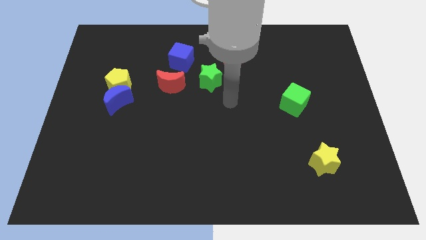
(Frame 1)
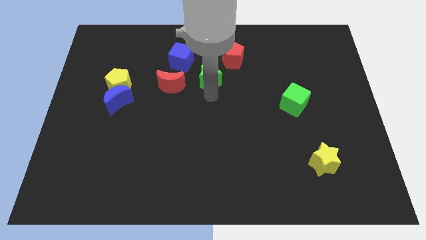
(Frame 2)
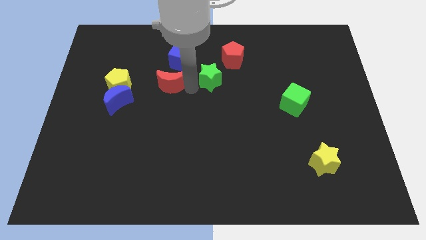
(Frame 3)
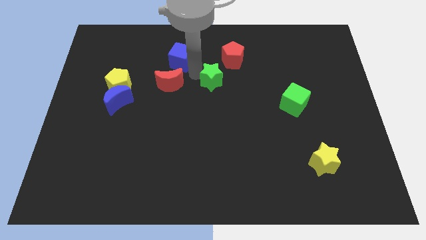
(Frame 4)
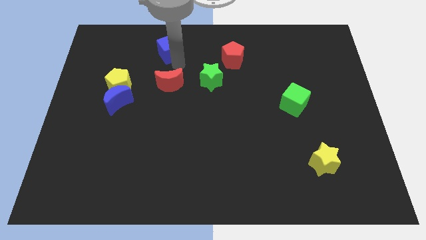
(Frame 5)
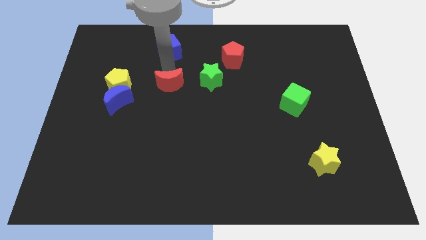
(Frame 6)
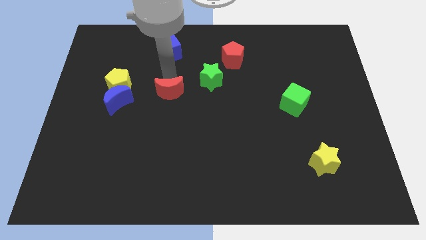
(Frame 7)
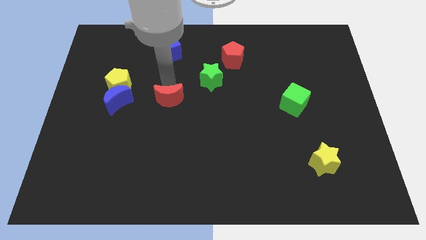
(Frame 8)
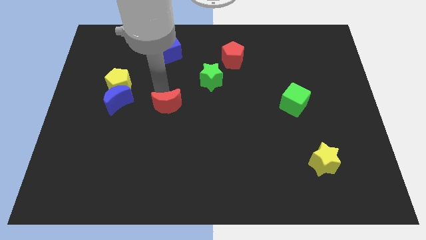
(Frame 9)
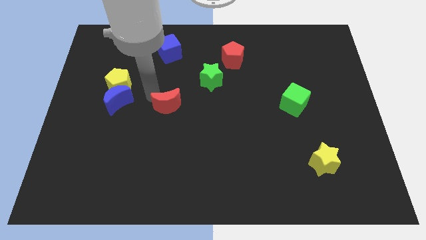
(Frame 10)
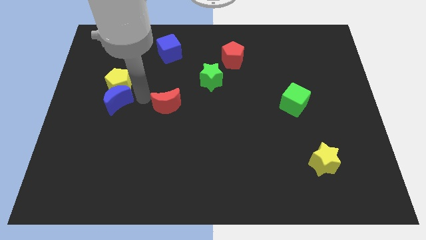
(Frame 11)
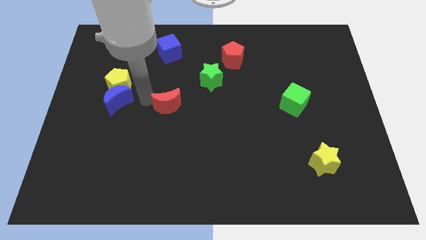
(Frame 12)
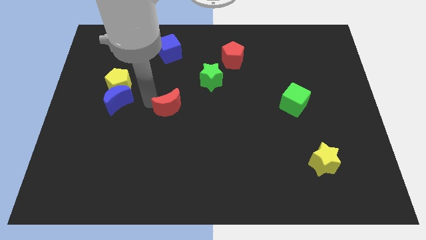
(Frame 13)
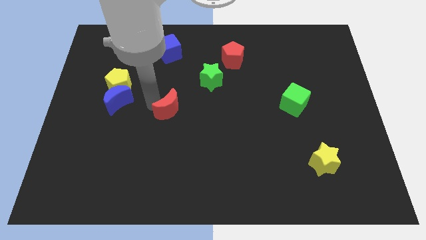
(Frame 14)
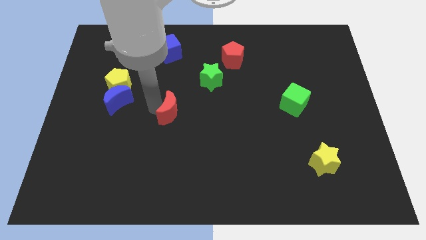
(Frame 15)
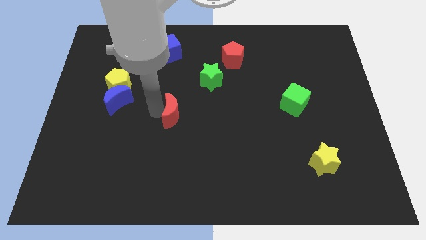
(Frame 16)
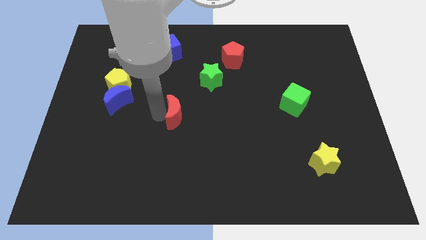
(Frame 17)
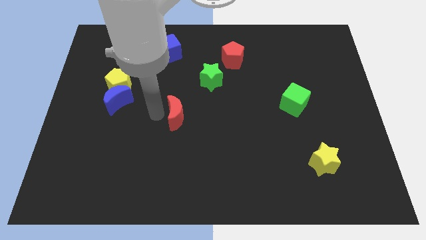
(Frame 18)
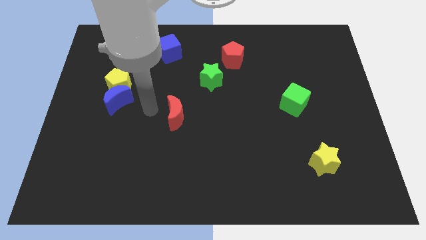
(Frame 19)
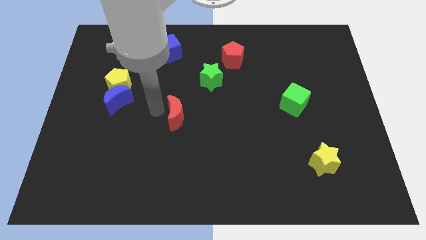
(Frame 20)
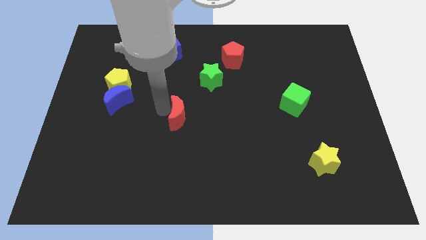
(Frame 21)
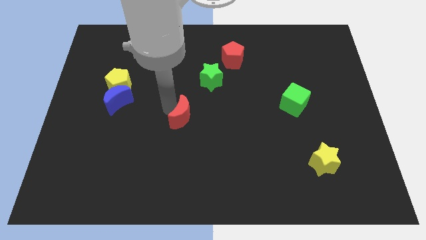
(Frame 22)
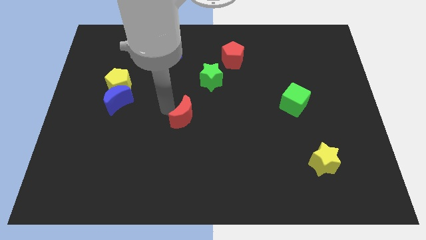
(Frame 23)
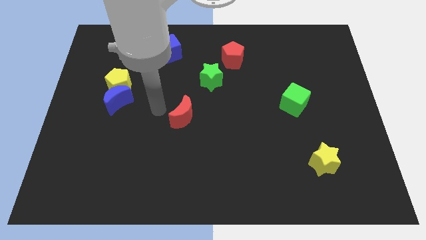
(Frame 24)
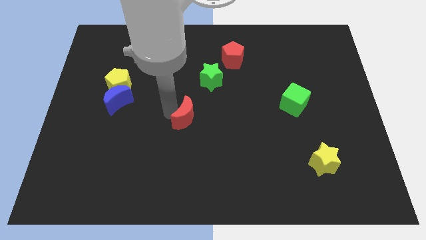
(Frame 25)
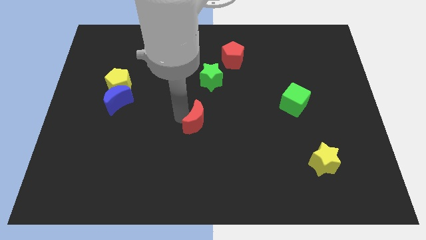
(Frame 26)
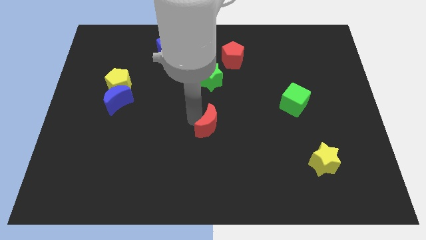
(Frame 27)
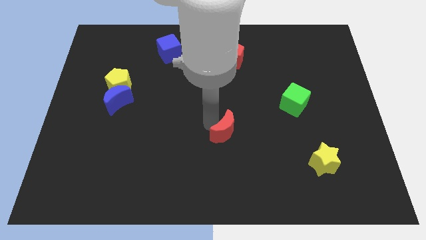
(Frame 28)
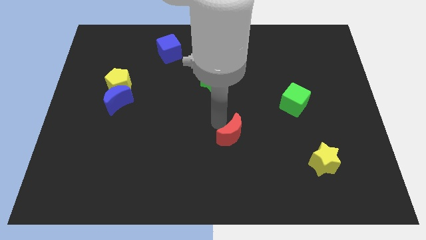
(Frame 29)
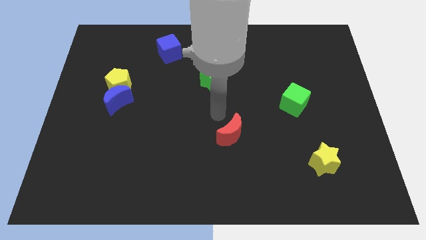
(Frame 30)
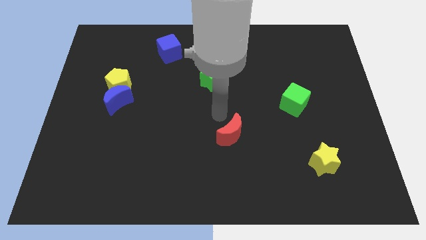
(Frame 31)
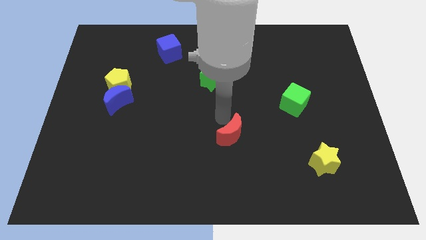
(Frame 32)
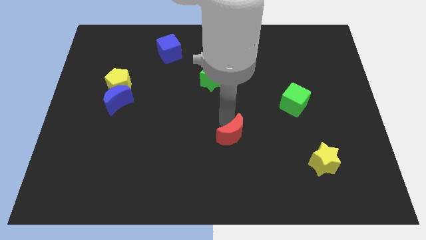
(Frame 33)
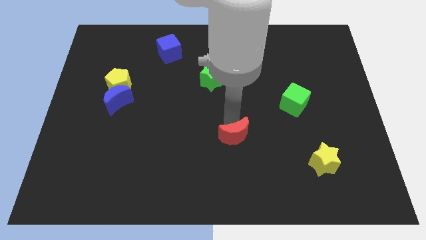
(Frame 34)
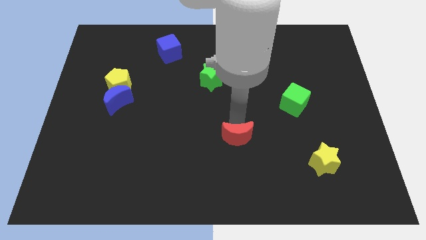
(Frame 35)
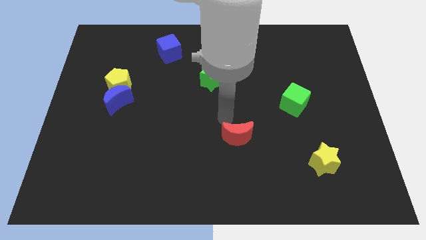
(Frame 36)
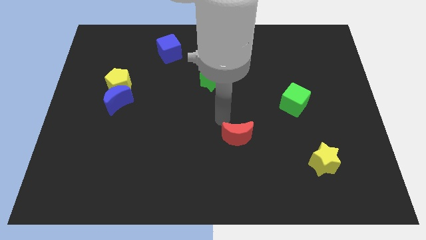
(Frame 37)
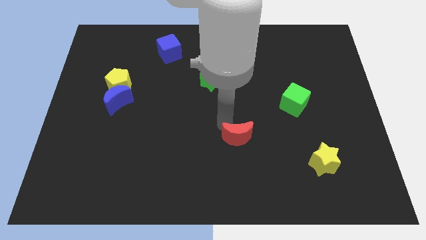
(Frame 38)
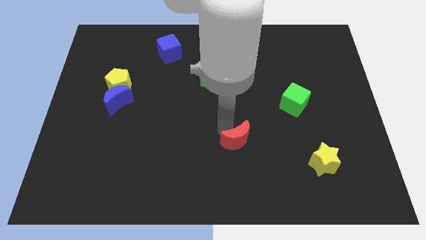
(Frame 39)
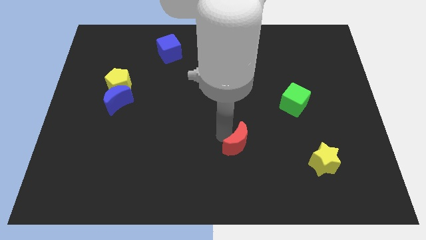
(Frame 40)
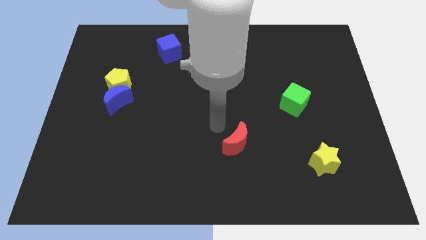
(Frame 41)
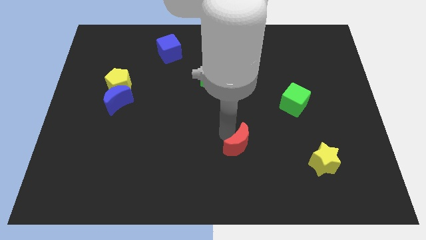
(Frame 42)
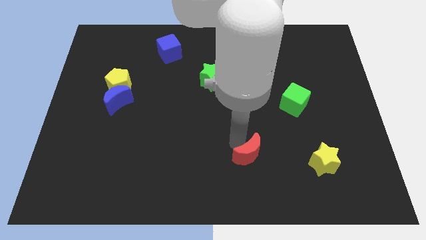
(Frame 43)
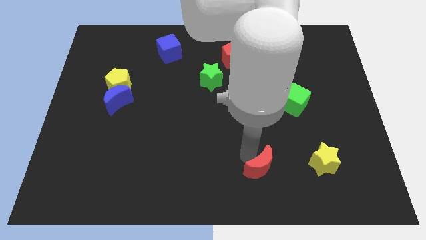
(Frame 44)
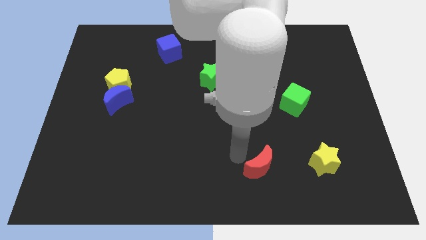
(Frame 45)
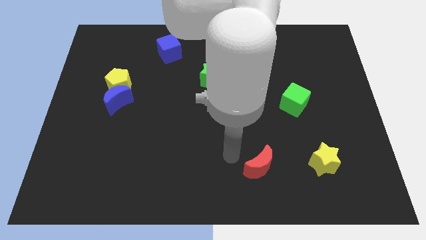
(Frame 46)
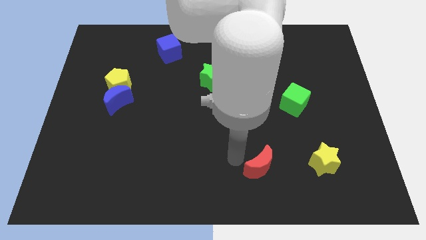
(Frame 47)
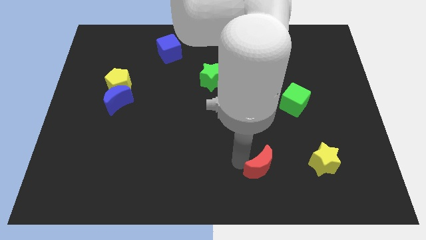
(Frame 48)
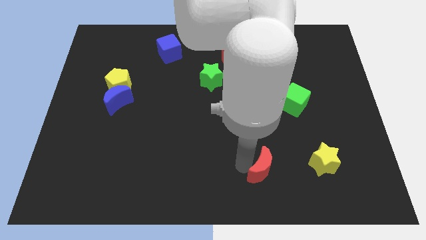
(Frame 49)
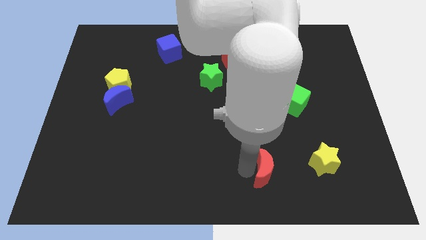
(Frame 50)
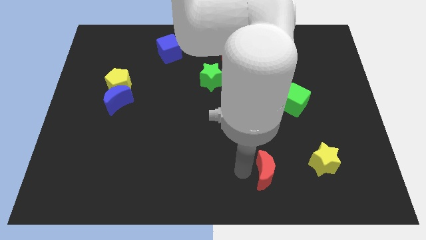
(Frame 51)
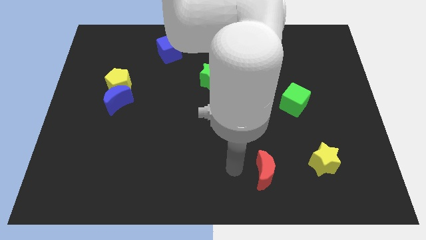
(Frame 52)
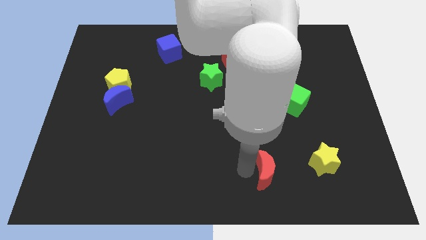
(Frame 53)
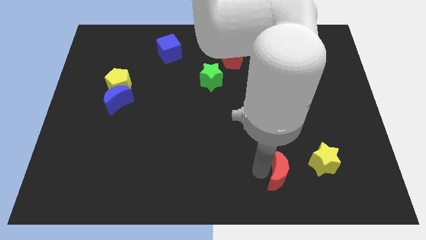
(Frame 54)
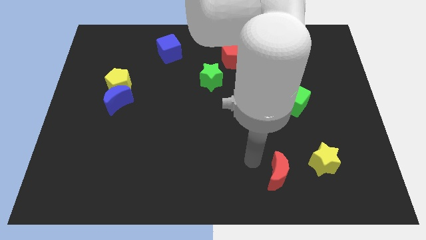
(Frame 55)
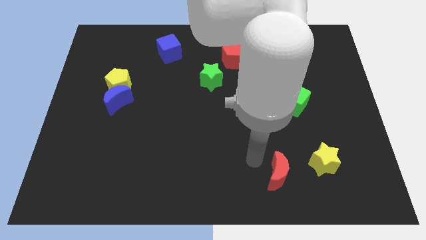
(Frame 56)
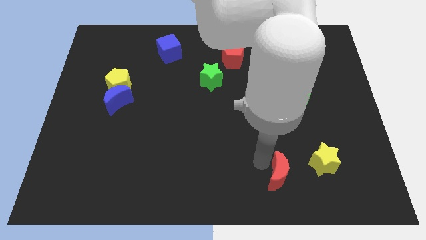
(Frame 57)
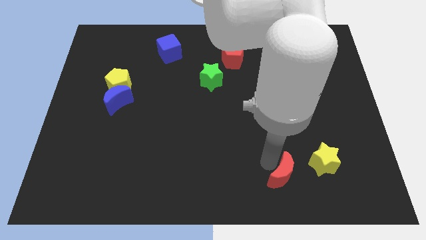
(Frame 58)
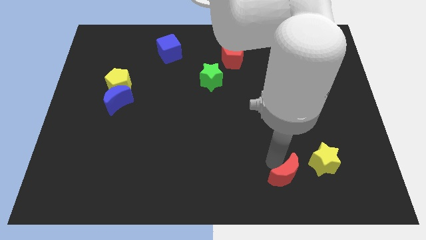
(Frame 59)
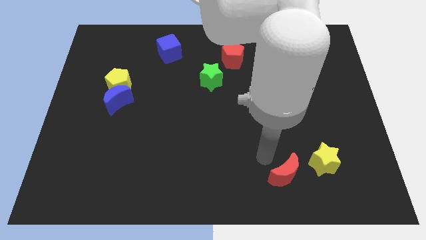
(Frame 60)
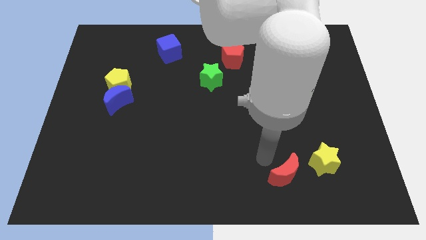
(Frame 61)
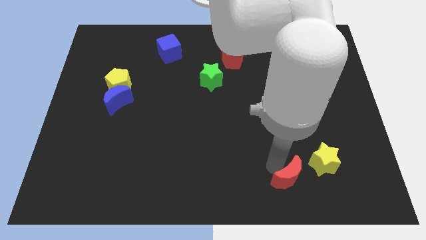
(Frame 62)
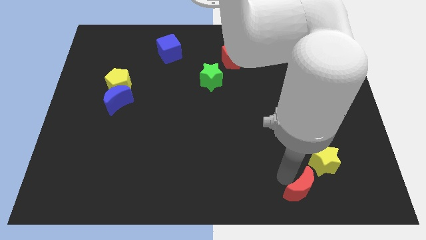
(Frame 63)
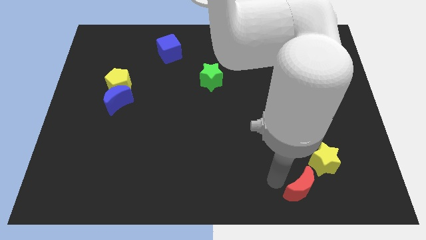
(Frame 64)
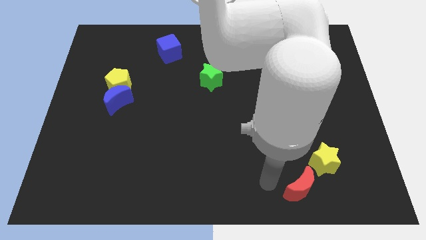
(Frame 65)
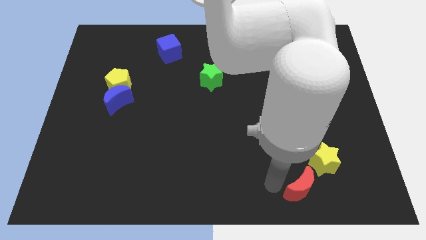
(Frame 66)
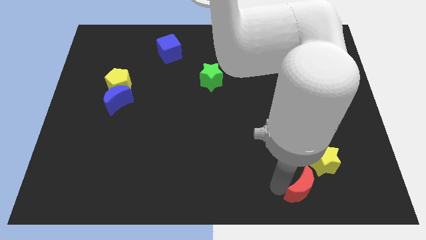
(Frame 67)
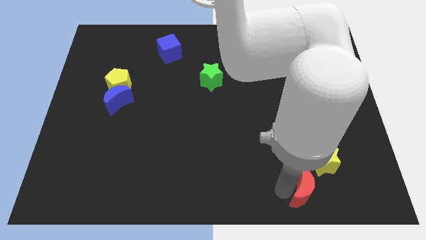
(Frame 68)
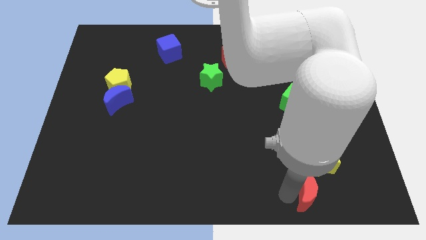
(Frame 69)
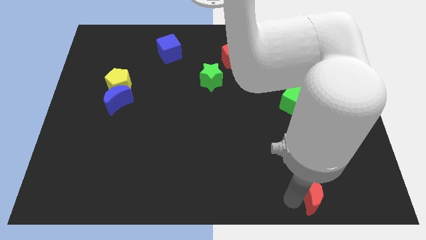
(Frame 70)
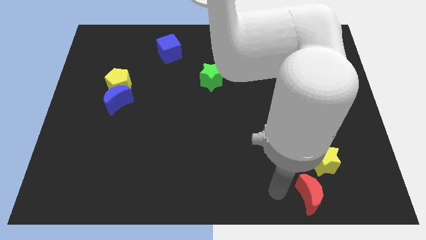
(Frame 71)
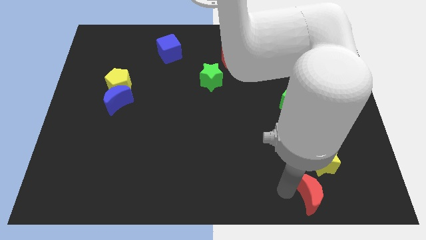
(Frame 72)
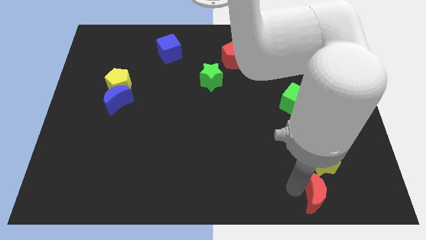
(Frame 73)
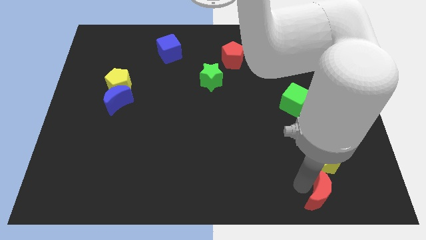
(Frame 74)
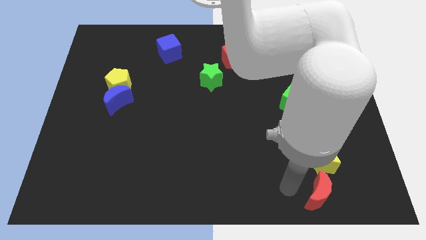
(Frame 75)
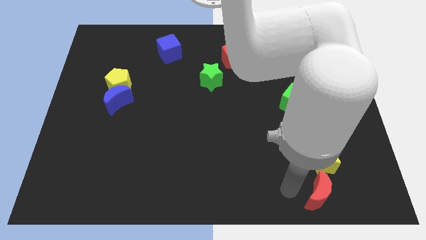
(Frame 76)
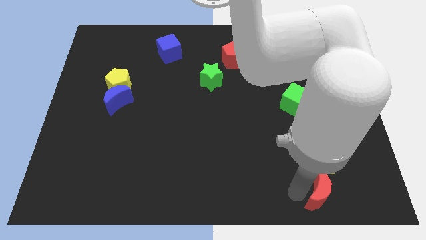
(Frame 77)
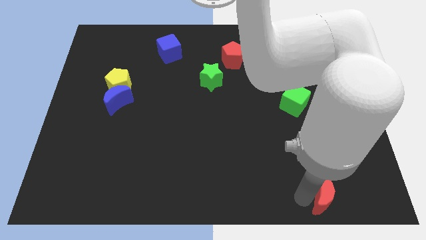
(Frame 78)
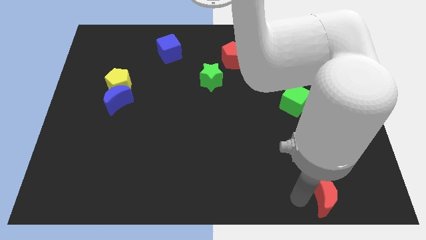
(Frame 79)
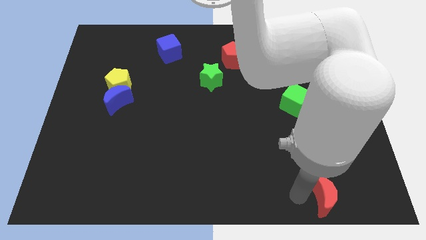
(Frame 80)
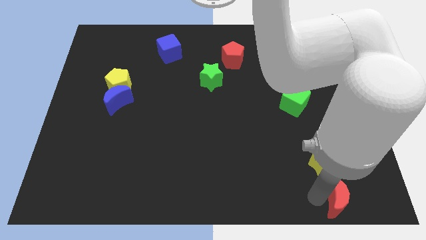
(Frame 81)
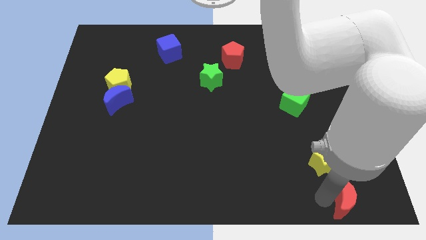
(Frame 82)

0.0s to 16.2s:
put the red moon to the bottom right corner
